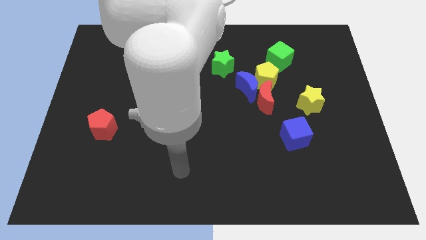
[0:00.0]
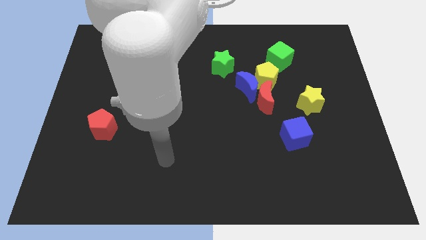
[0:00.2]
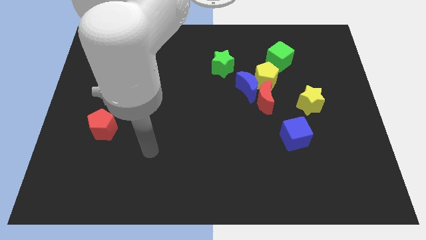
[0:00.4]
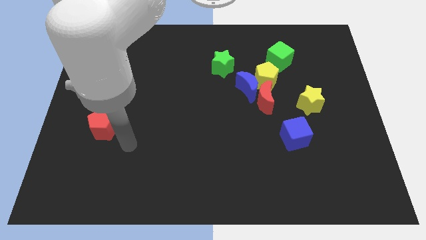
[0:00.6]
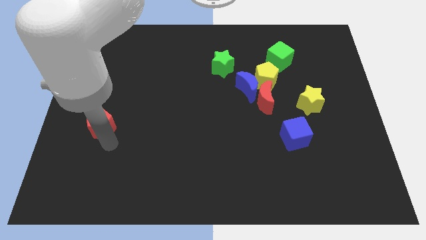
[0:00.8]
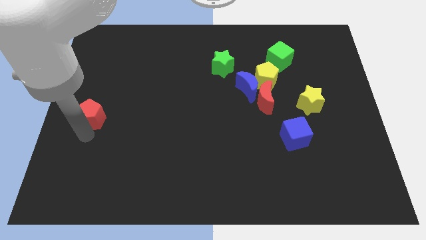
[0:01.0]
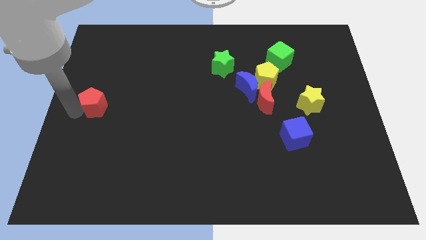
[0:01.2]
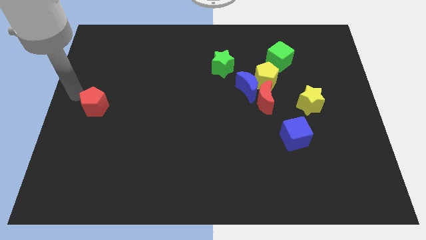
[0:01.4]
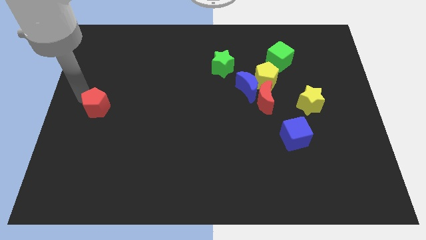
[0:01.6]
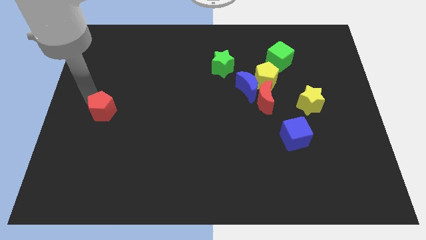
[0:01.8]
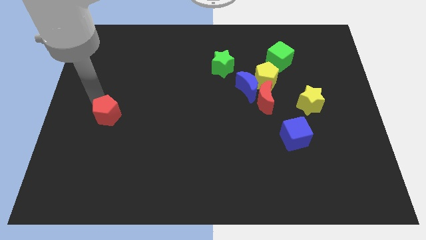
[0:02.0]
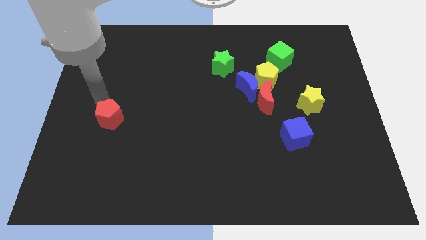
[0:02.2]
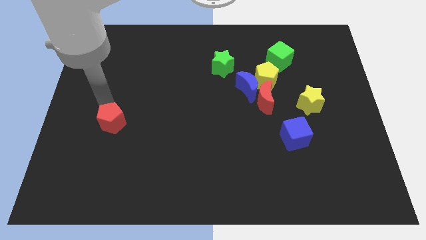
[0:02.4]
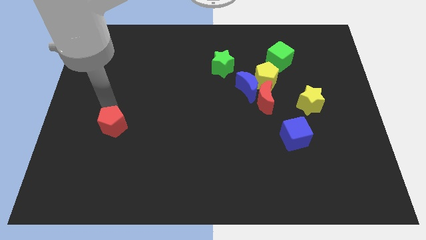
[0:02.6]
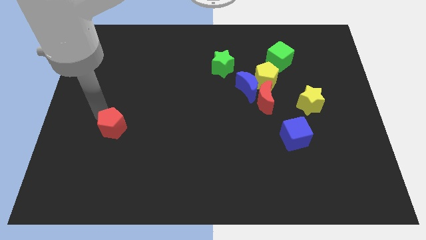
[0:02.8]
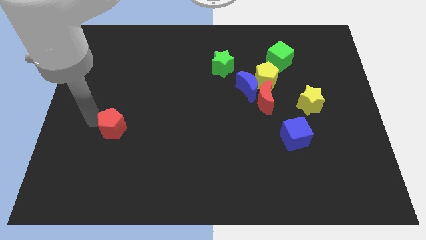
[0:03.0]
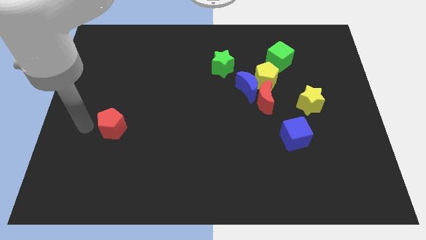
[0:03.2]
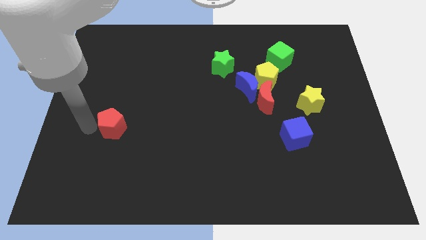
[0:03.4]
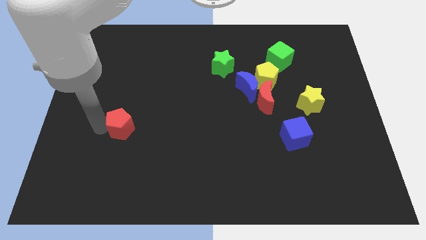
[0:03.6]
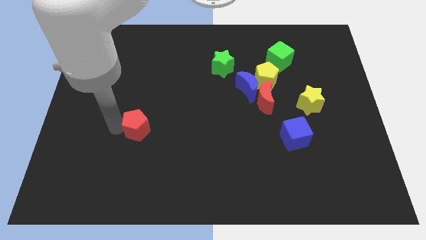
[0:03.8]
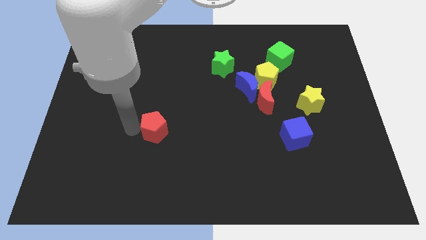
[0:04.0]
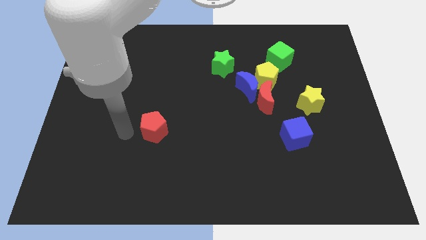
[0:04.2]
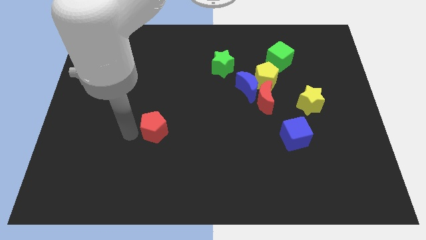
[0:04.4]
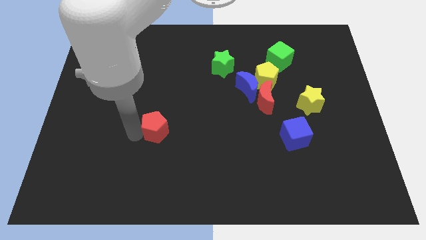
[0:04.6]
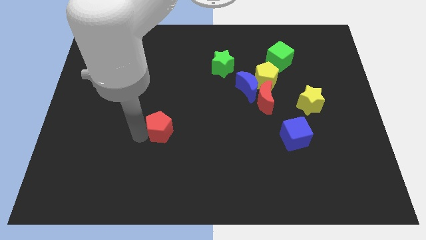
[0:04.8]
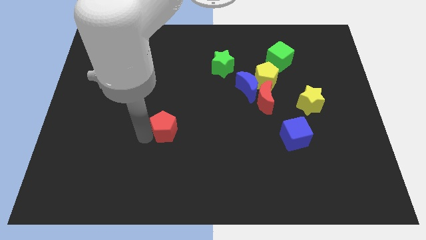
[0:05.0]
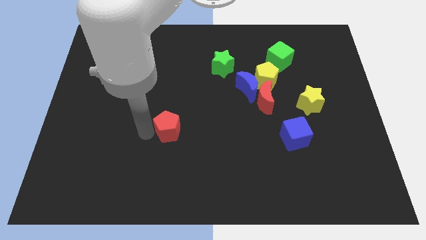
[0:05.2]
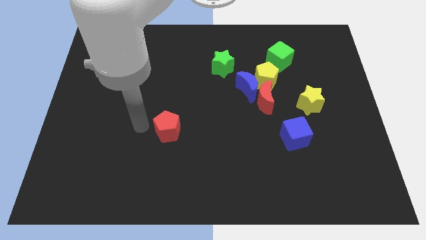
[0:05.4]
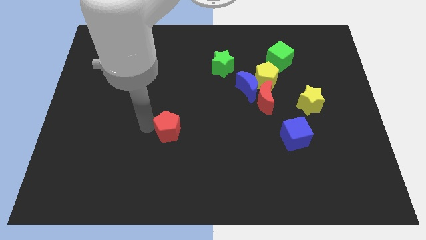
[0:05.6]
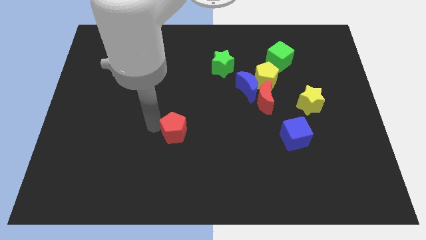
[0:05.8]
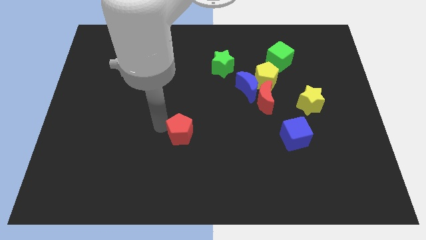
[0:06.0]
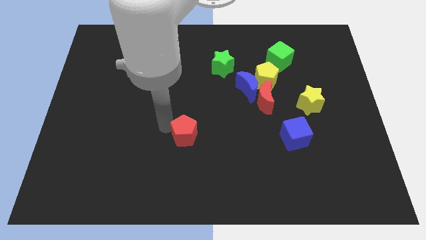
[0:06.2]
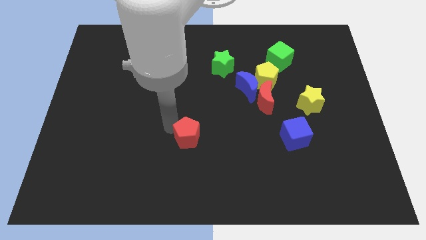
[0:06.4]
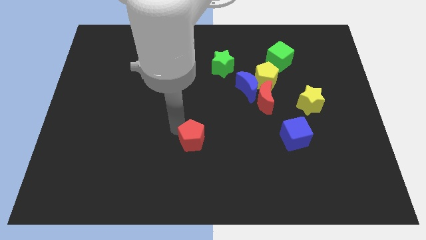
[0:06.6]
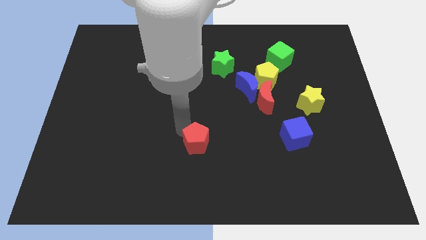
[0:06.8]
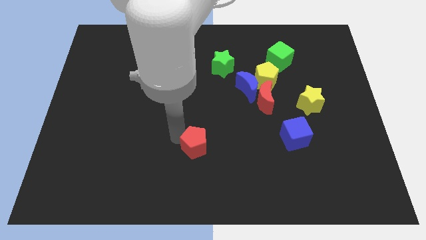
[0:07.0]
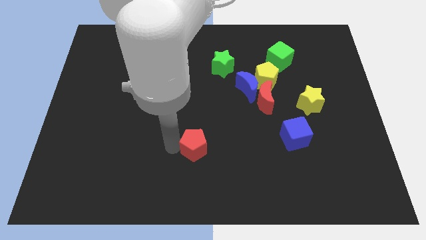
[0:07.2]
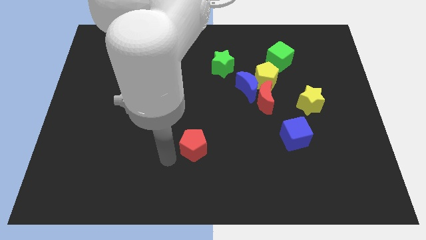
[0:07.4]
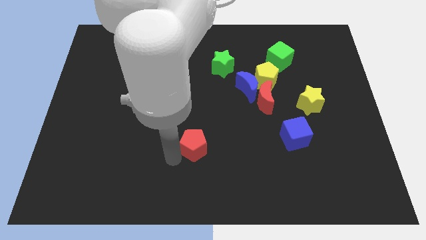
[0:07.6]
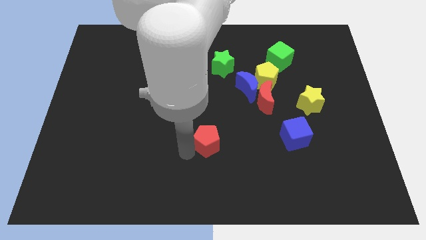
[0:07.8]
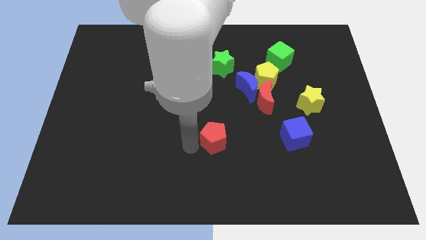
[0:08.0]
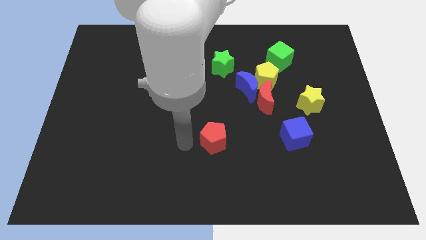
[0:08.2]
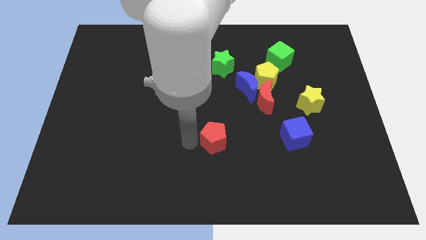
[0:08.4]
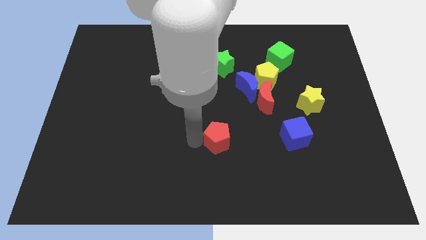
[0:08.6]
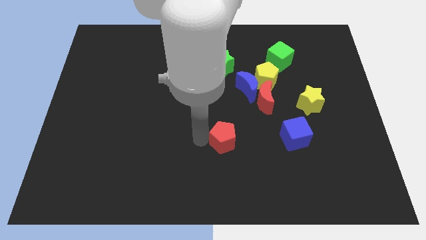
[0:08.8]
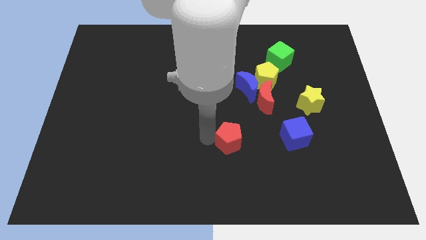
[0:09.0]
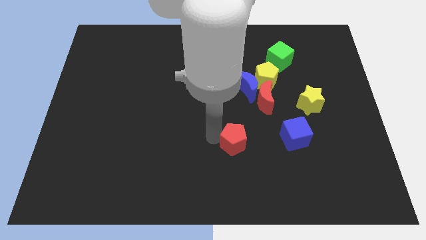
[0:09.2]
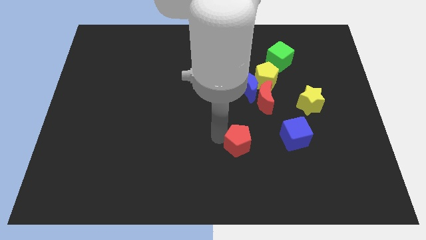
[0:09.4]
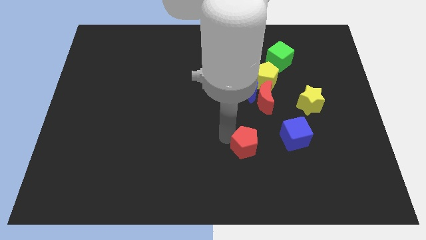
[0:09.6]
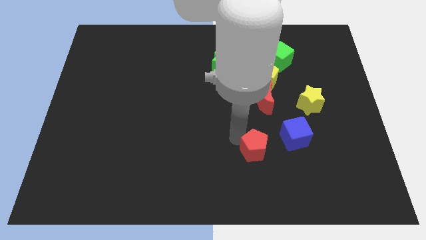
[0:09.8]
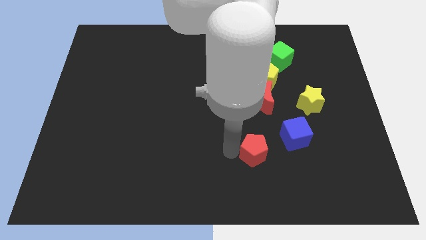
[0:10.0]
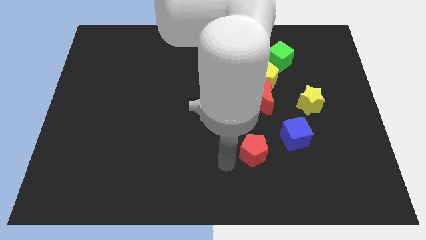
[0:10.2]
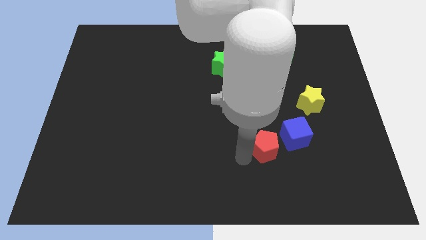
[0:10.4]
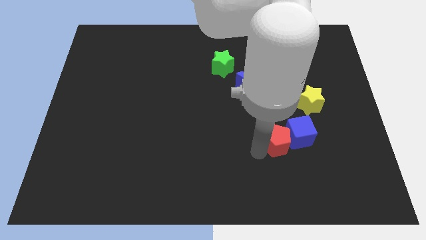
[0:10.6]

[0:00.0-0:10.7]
put the red pentagon next to the blue cube

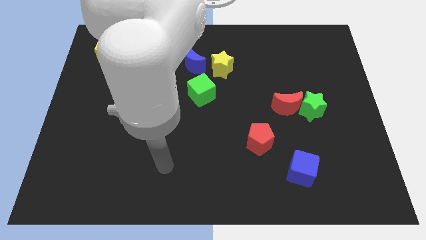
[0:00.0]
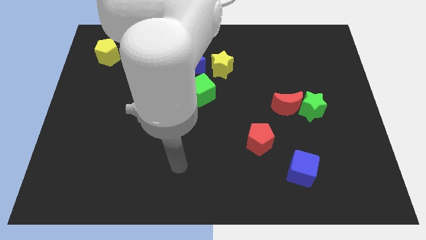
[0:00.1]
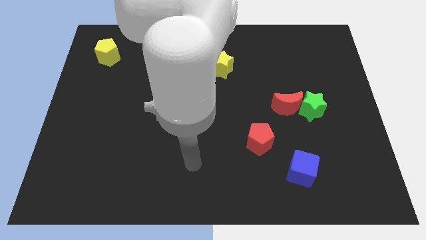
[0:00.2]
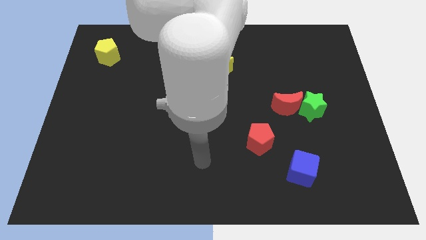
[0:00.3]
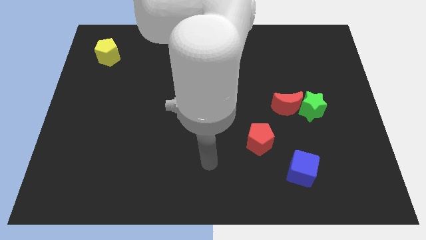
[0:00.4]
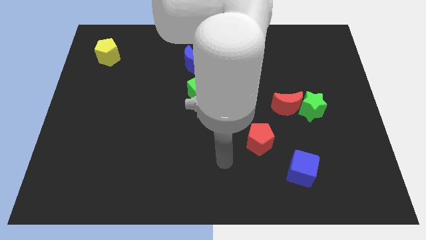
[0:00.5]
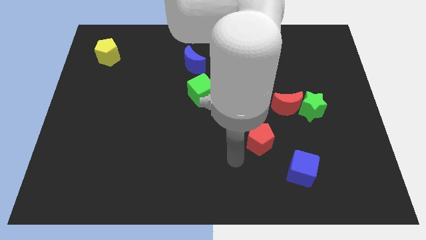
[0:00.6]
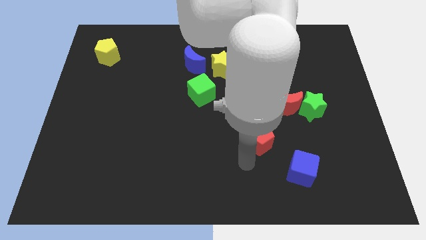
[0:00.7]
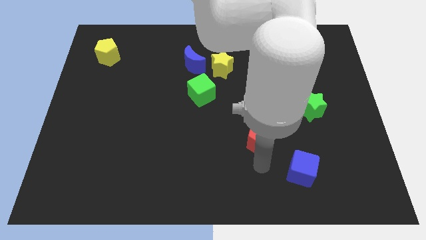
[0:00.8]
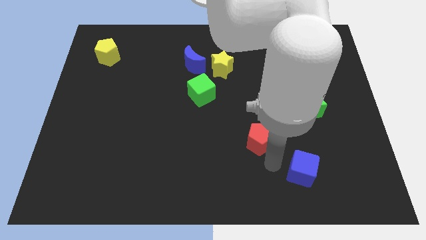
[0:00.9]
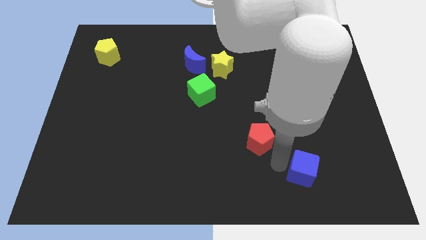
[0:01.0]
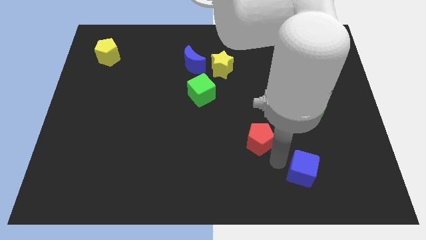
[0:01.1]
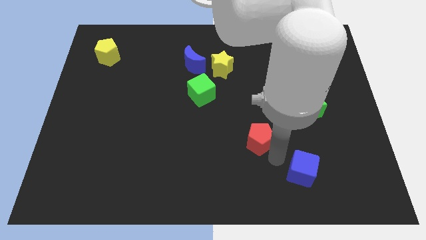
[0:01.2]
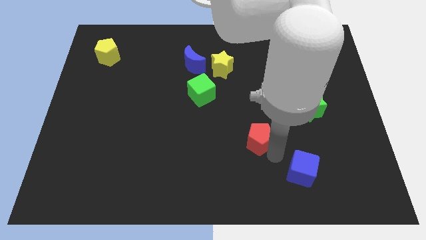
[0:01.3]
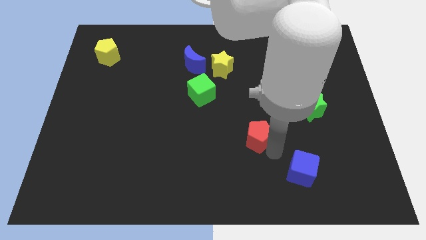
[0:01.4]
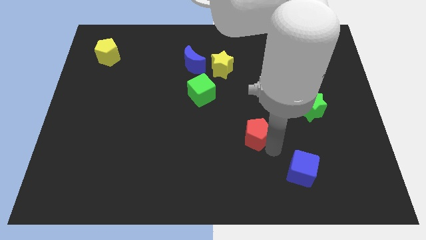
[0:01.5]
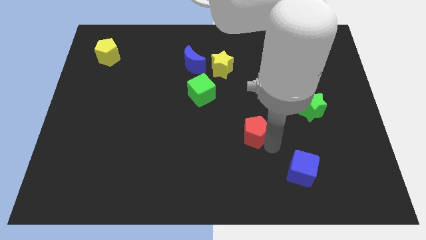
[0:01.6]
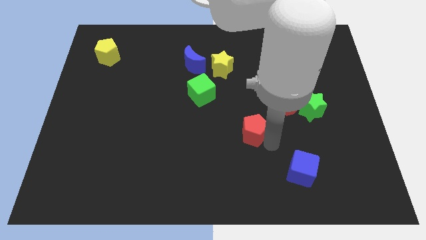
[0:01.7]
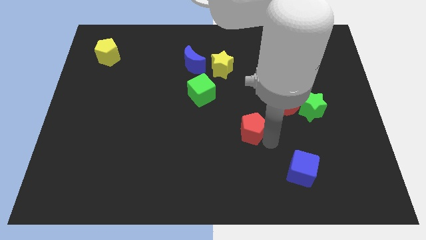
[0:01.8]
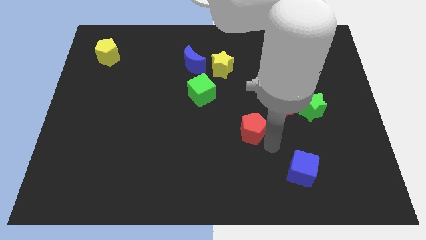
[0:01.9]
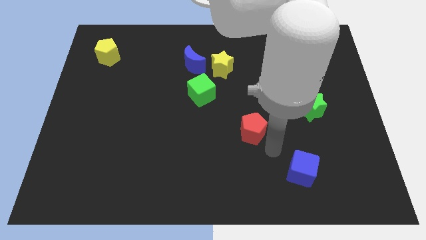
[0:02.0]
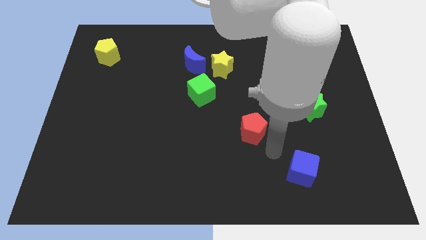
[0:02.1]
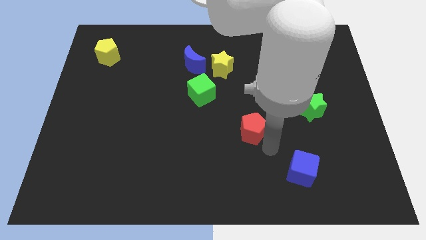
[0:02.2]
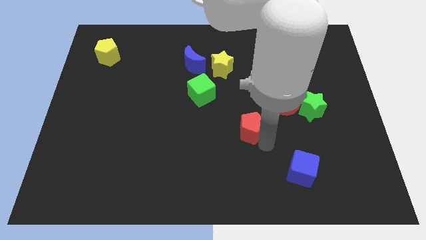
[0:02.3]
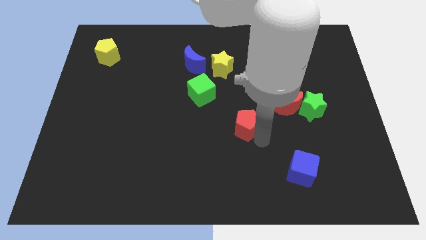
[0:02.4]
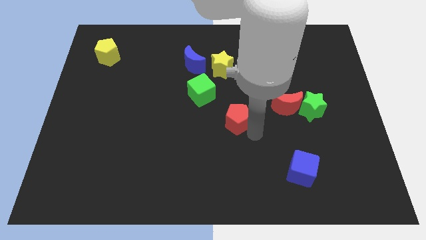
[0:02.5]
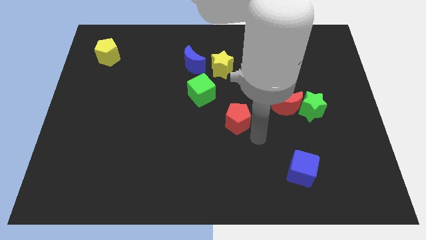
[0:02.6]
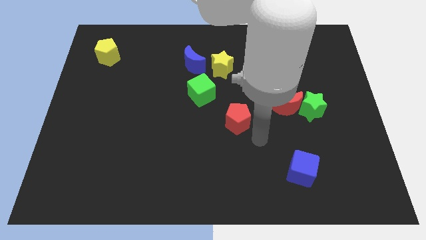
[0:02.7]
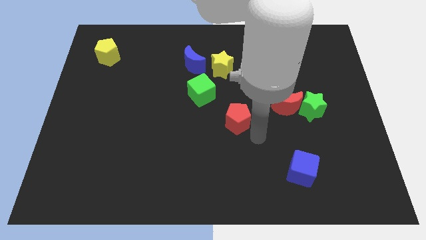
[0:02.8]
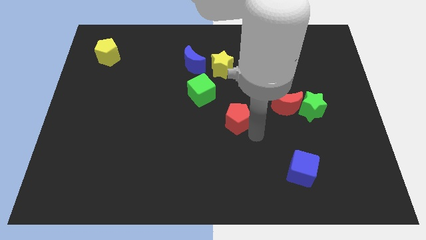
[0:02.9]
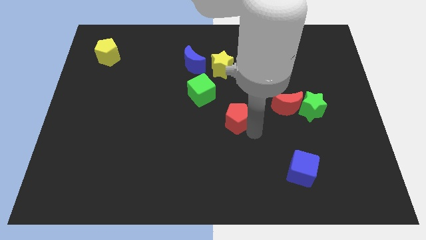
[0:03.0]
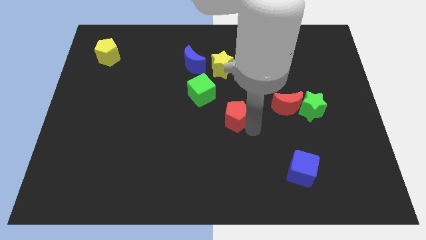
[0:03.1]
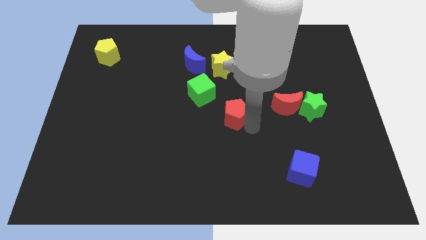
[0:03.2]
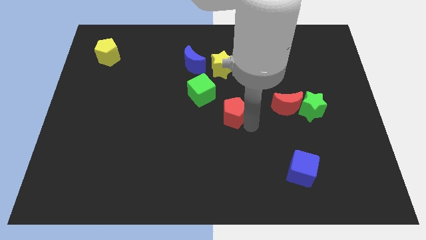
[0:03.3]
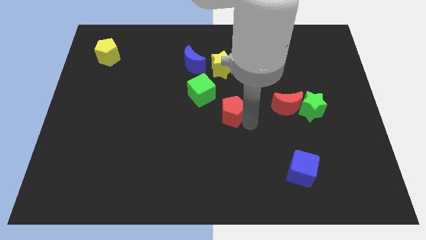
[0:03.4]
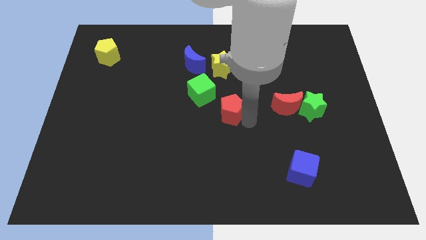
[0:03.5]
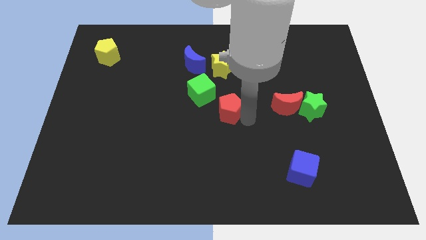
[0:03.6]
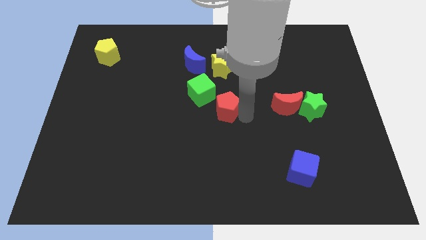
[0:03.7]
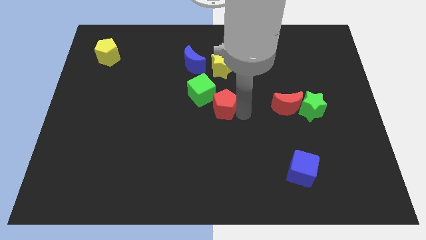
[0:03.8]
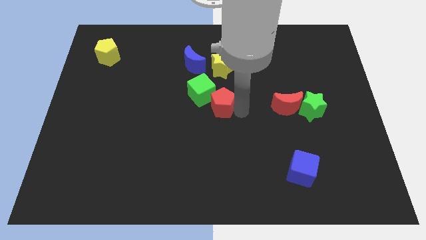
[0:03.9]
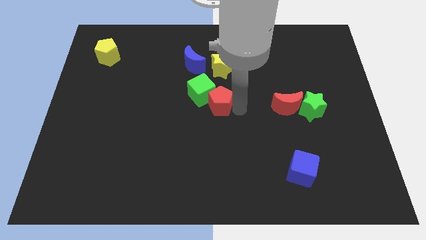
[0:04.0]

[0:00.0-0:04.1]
push the red pentagon towards the green cube
